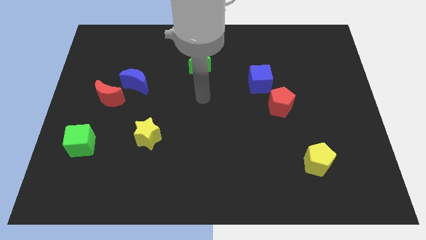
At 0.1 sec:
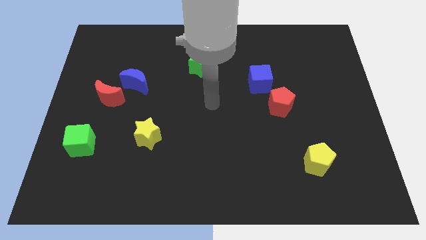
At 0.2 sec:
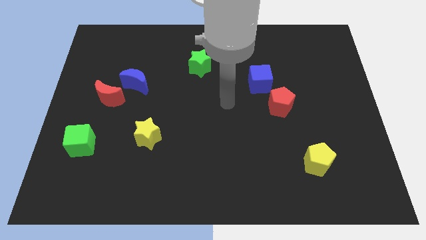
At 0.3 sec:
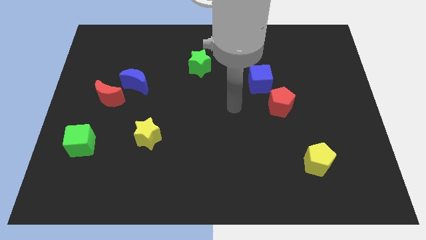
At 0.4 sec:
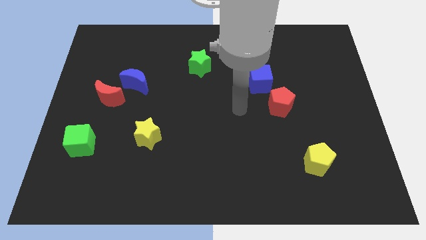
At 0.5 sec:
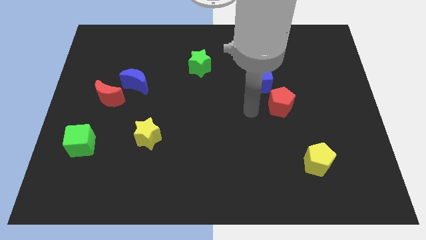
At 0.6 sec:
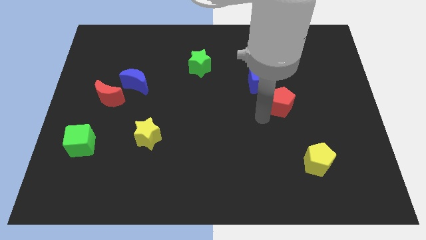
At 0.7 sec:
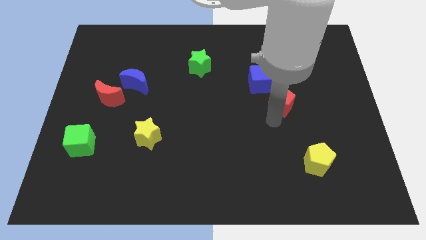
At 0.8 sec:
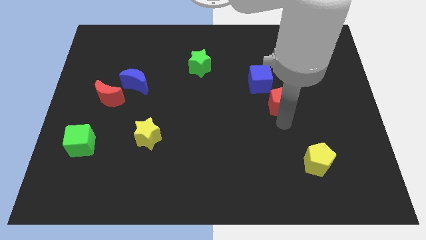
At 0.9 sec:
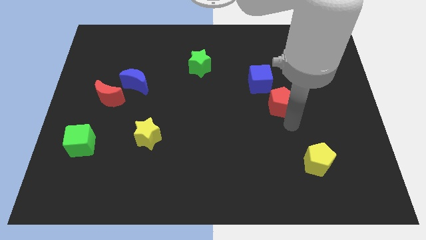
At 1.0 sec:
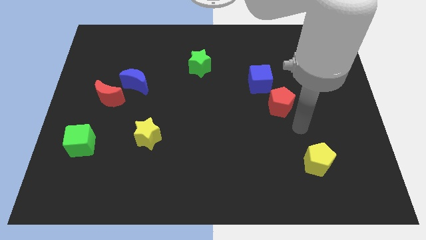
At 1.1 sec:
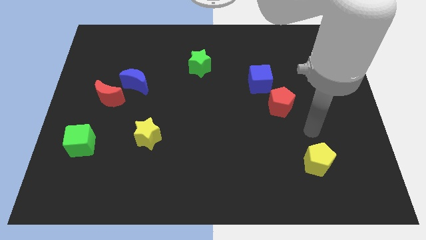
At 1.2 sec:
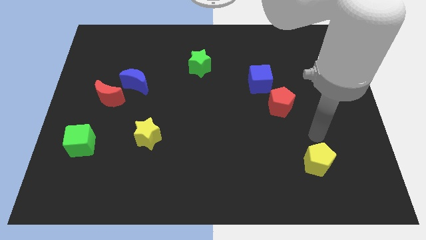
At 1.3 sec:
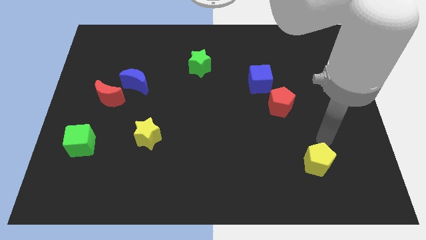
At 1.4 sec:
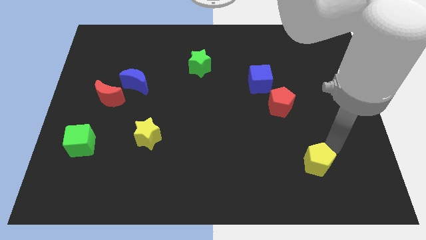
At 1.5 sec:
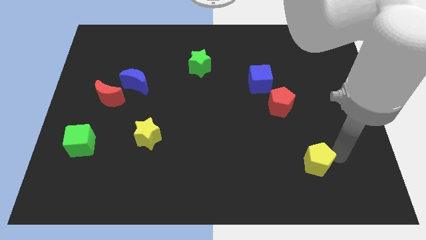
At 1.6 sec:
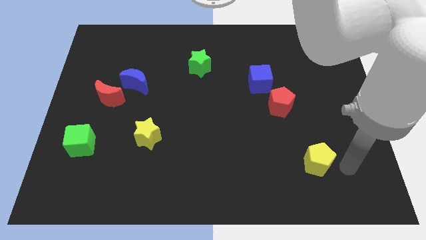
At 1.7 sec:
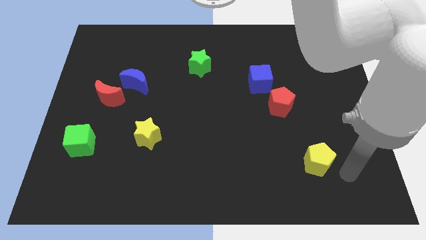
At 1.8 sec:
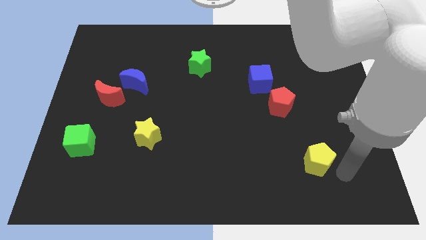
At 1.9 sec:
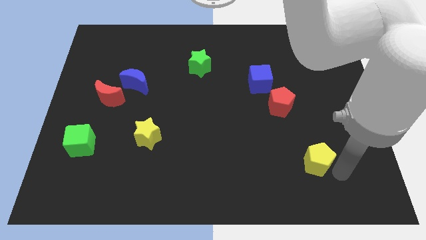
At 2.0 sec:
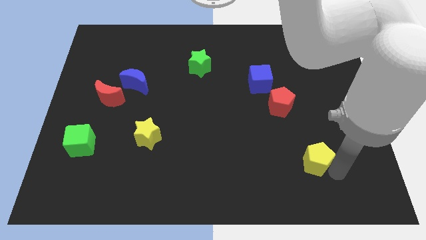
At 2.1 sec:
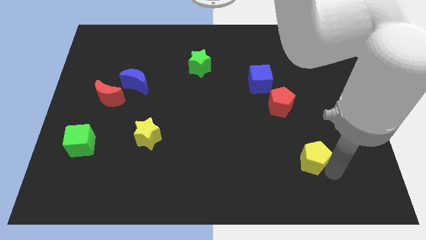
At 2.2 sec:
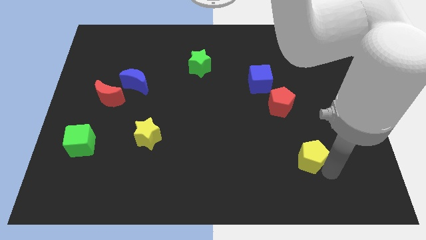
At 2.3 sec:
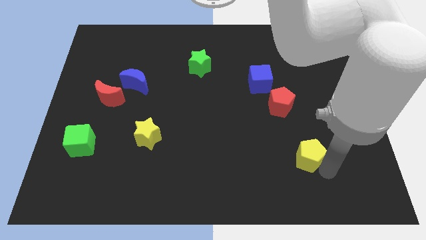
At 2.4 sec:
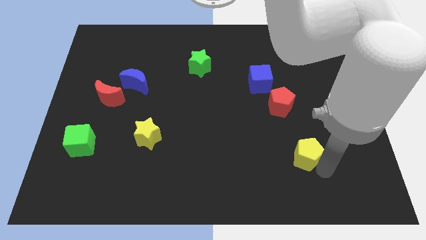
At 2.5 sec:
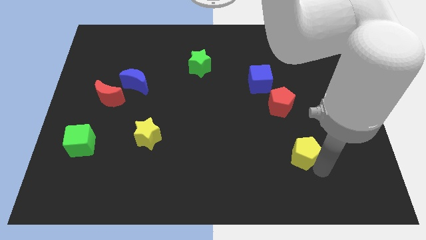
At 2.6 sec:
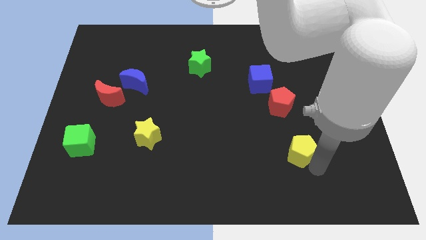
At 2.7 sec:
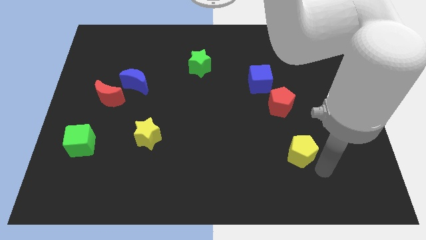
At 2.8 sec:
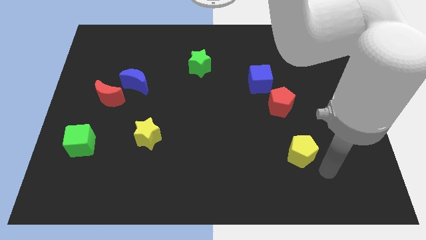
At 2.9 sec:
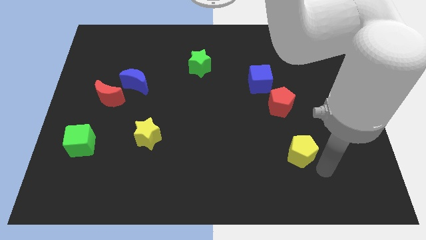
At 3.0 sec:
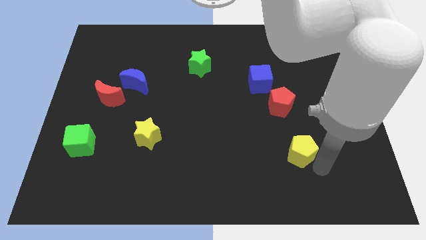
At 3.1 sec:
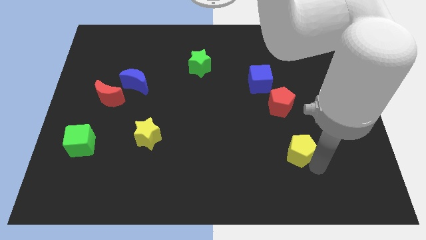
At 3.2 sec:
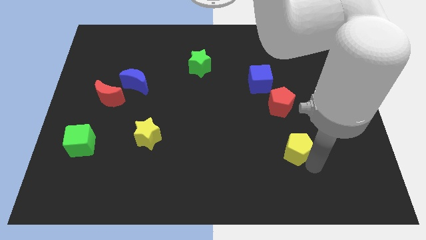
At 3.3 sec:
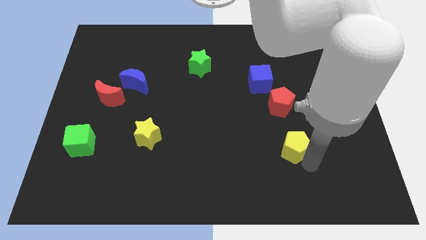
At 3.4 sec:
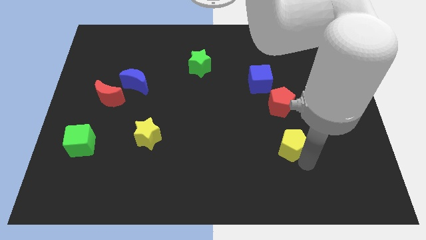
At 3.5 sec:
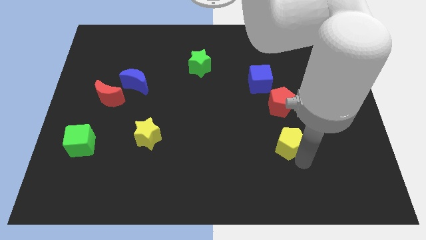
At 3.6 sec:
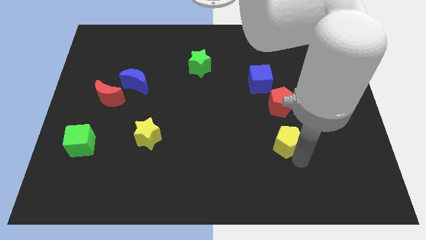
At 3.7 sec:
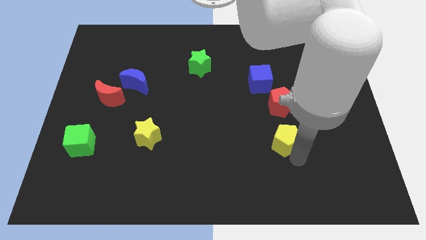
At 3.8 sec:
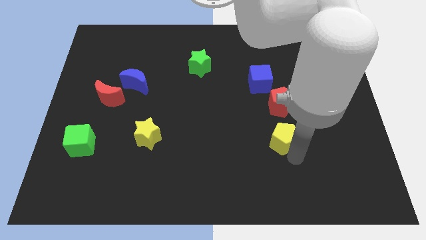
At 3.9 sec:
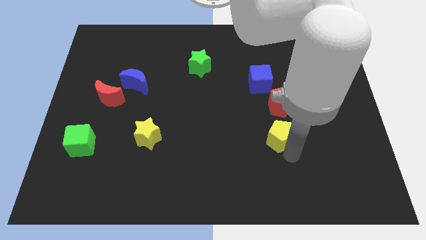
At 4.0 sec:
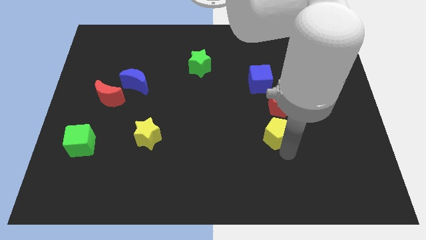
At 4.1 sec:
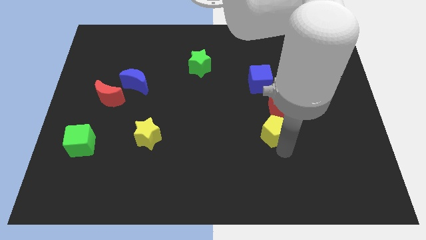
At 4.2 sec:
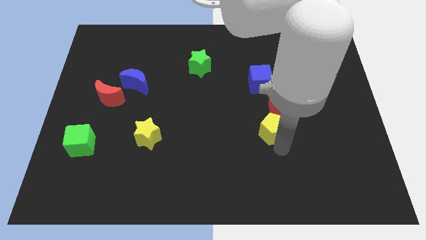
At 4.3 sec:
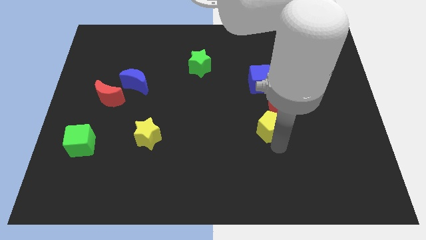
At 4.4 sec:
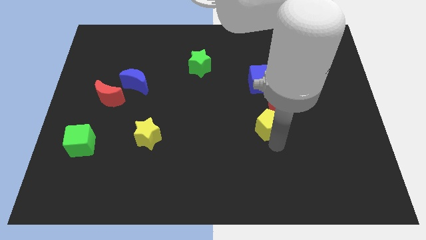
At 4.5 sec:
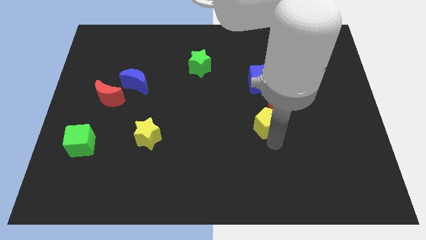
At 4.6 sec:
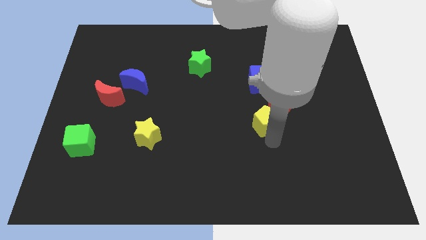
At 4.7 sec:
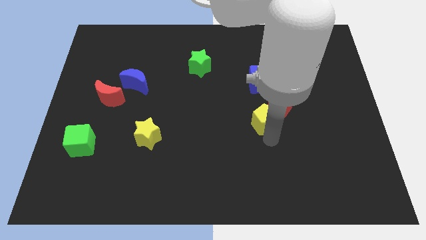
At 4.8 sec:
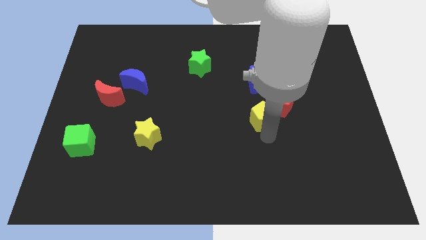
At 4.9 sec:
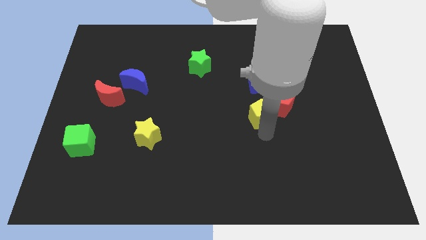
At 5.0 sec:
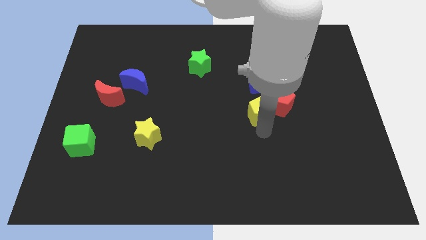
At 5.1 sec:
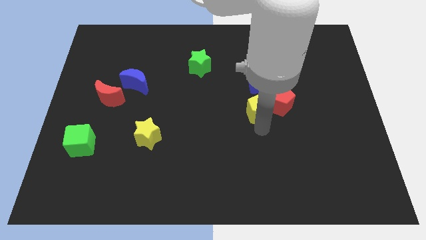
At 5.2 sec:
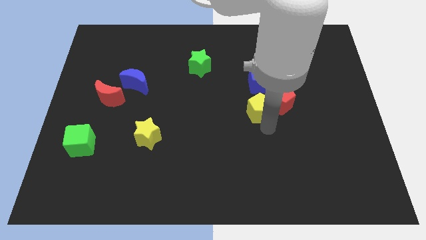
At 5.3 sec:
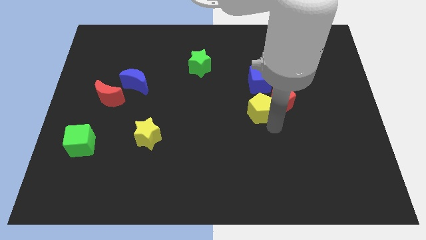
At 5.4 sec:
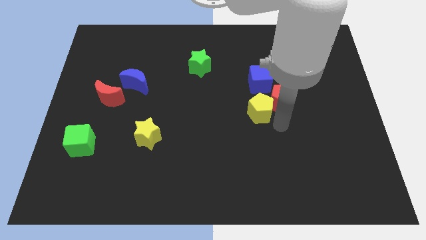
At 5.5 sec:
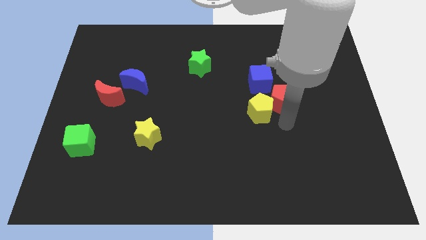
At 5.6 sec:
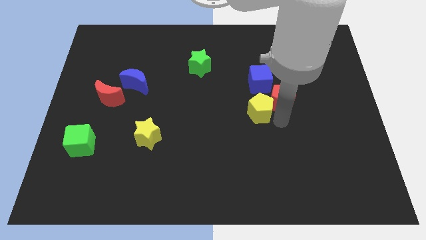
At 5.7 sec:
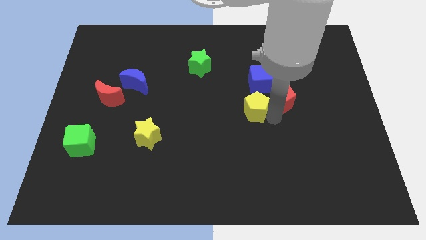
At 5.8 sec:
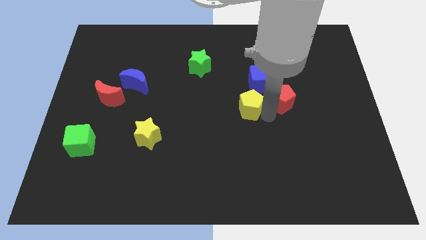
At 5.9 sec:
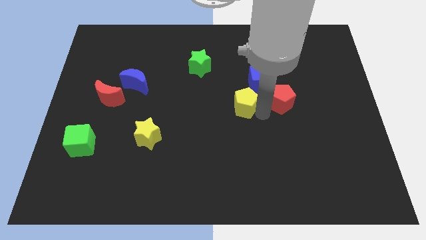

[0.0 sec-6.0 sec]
slide the yellow pentagon up and left

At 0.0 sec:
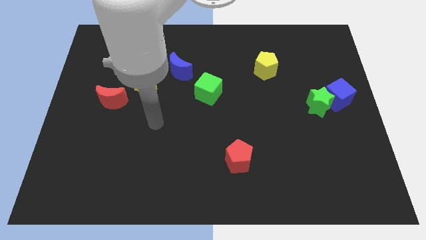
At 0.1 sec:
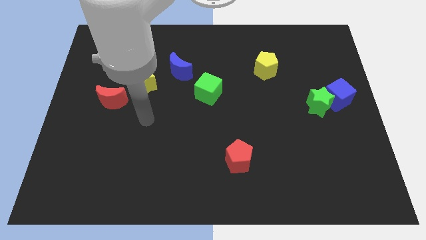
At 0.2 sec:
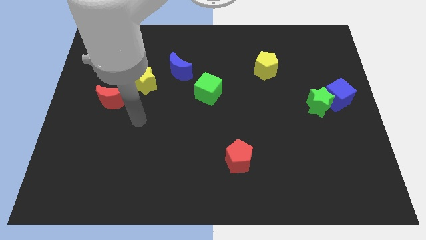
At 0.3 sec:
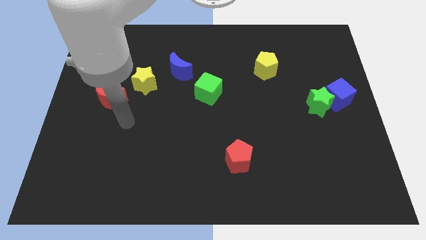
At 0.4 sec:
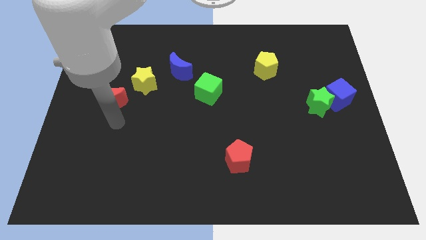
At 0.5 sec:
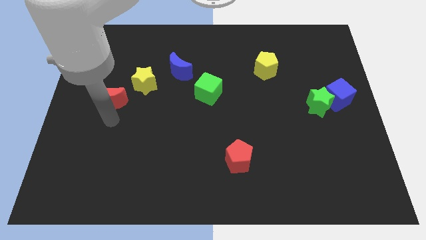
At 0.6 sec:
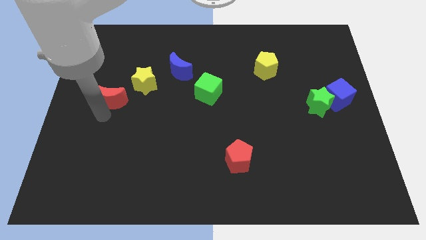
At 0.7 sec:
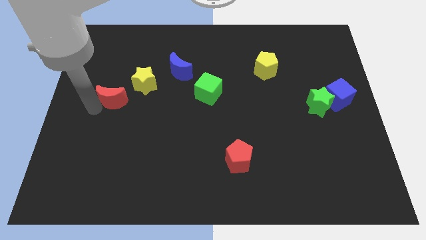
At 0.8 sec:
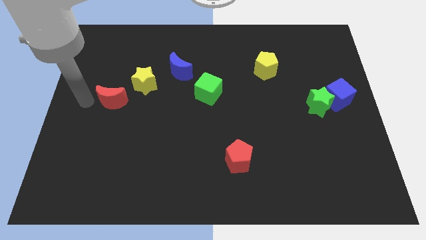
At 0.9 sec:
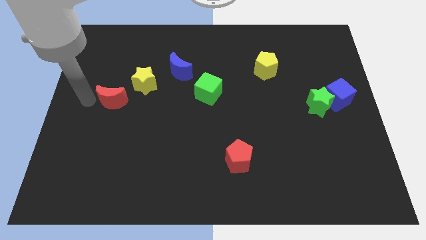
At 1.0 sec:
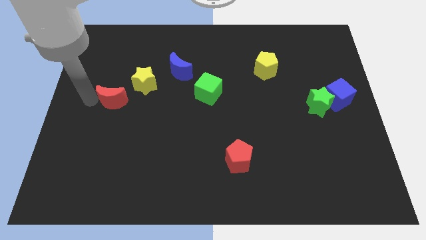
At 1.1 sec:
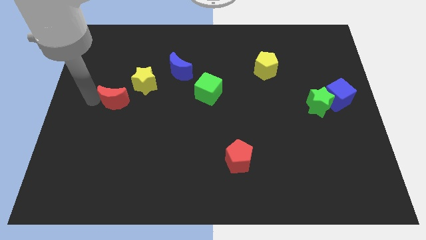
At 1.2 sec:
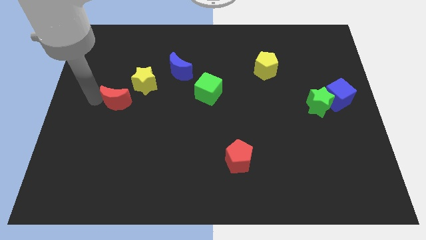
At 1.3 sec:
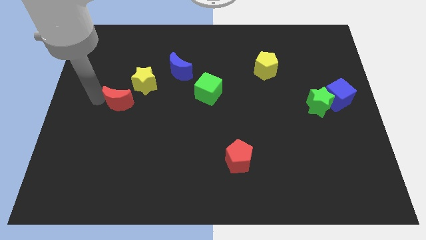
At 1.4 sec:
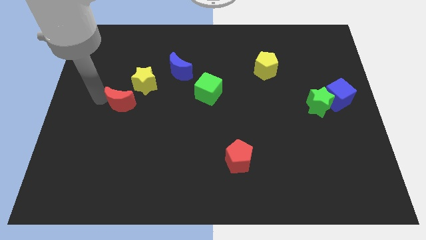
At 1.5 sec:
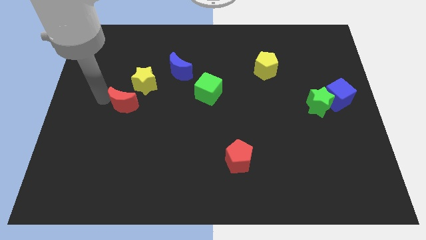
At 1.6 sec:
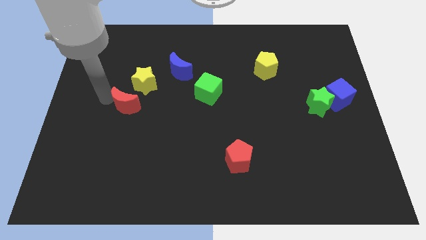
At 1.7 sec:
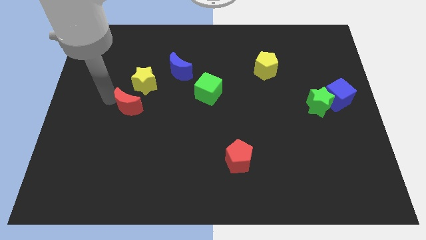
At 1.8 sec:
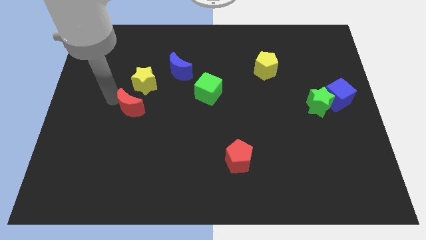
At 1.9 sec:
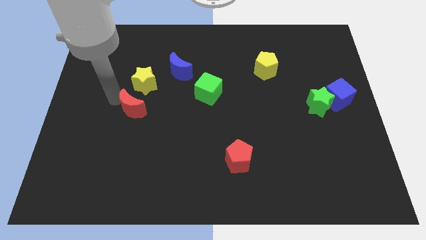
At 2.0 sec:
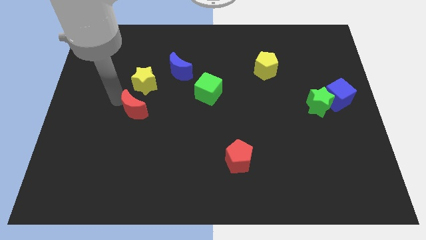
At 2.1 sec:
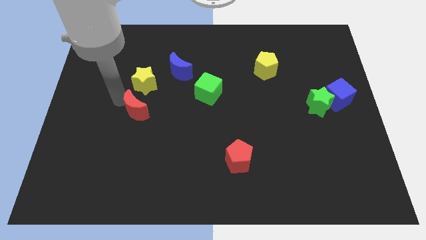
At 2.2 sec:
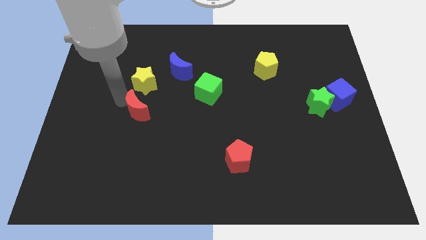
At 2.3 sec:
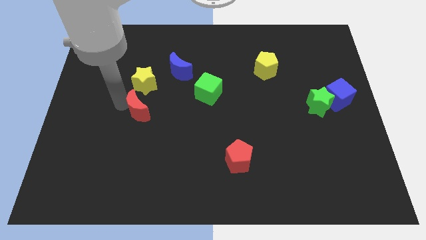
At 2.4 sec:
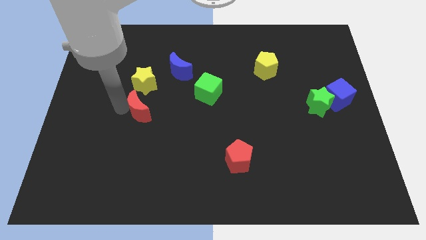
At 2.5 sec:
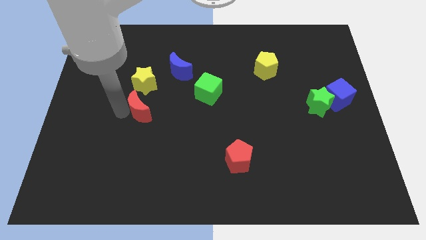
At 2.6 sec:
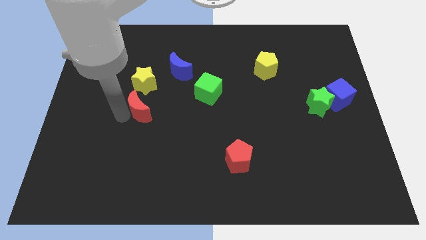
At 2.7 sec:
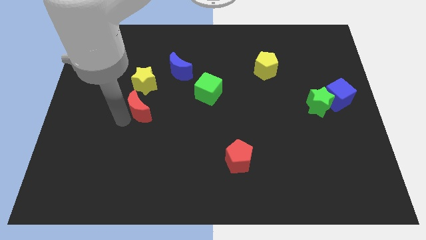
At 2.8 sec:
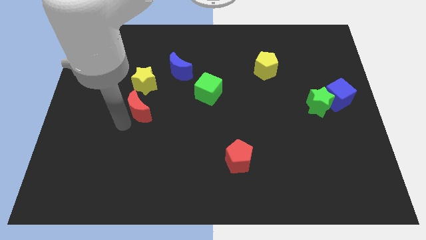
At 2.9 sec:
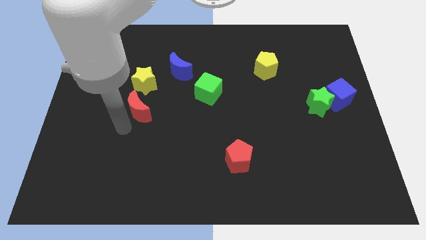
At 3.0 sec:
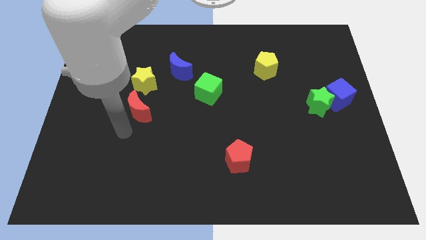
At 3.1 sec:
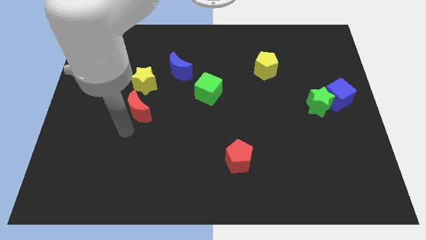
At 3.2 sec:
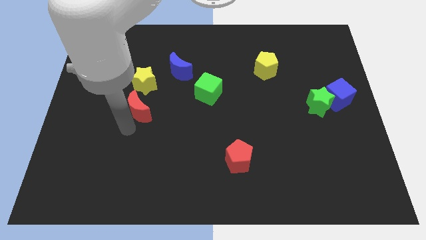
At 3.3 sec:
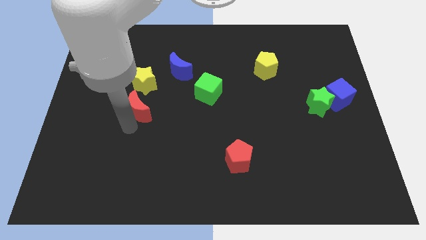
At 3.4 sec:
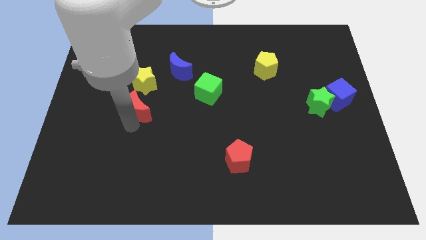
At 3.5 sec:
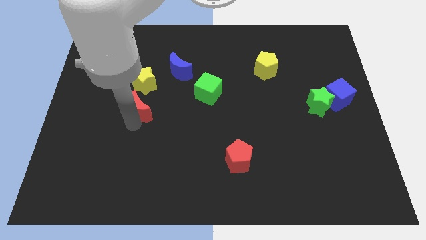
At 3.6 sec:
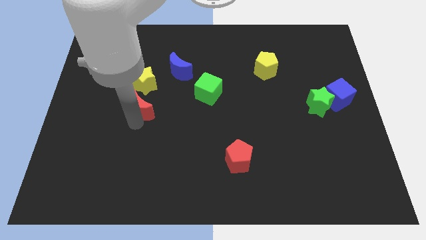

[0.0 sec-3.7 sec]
slightly slide the red moon right
